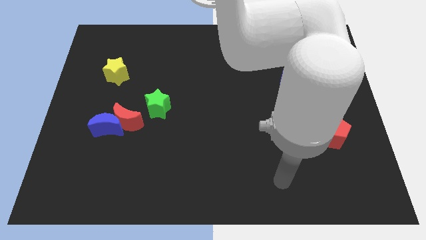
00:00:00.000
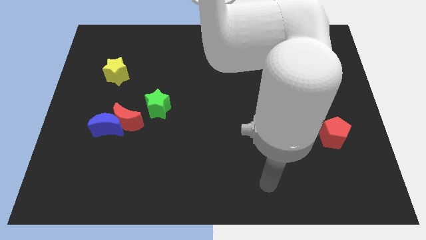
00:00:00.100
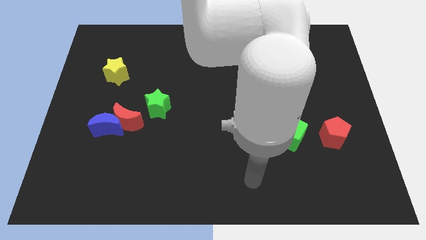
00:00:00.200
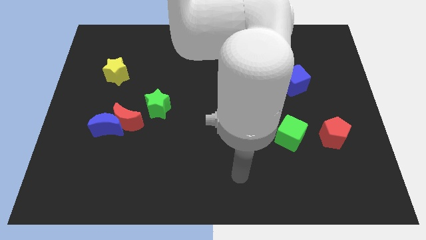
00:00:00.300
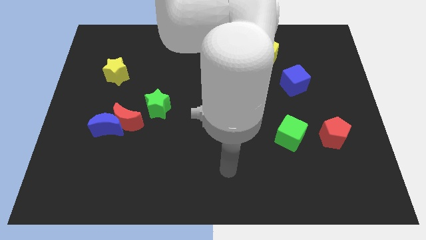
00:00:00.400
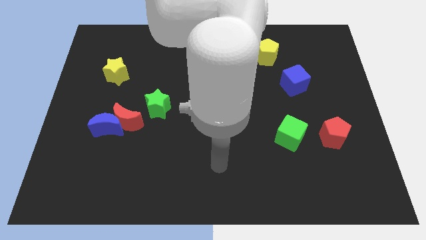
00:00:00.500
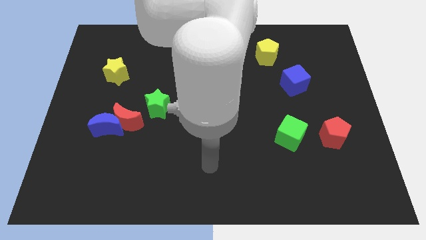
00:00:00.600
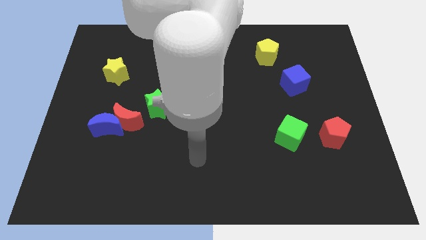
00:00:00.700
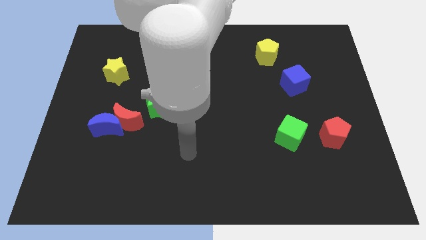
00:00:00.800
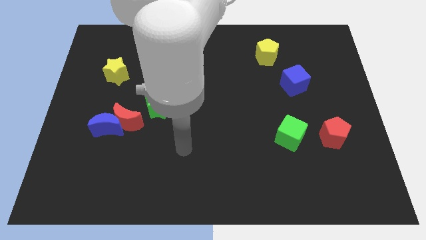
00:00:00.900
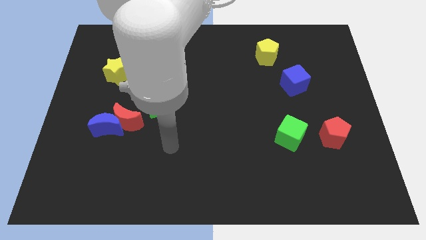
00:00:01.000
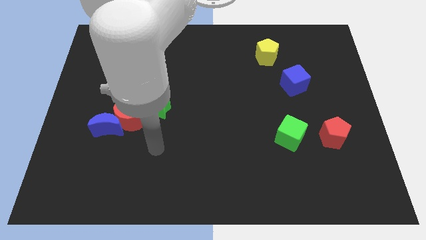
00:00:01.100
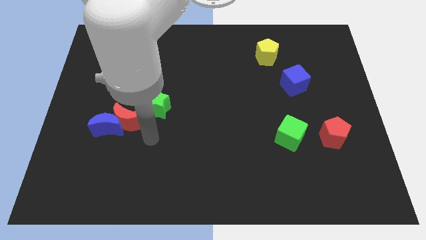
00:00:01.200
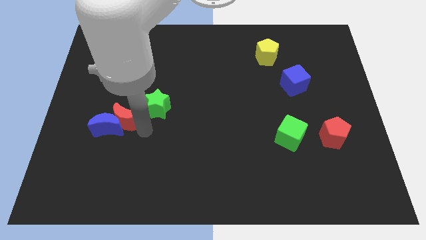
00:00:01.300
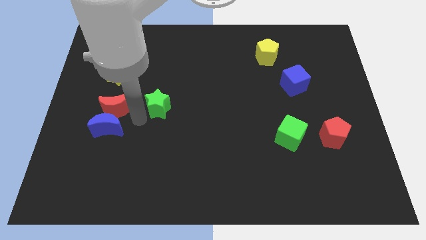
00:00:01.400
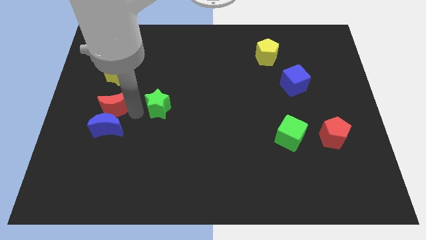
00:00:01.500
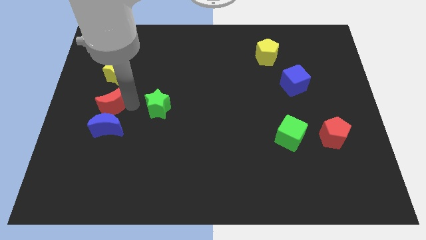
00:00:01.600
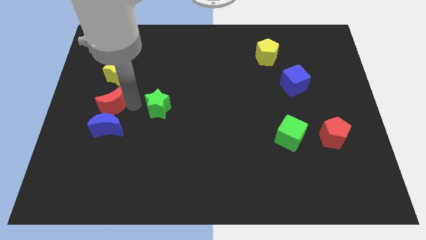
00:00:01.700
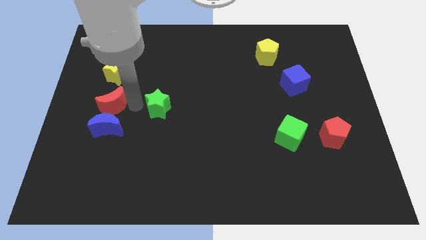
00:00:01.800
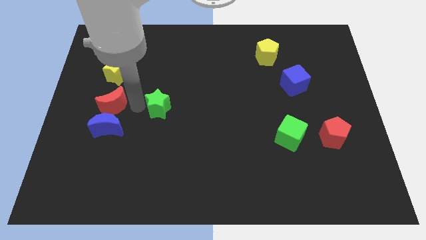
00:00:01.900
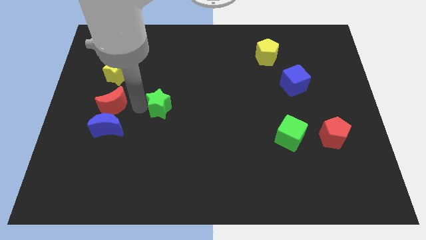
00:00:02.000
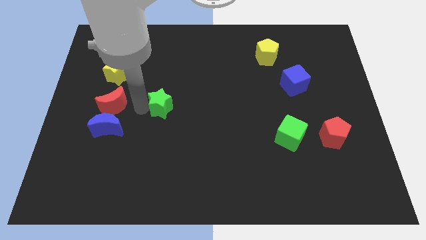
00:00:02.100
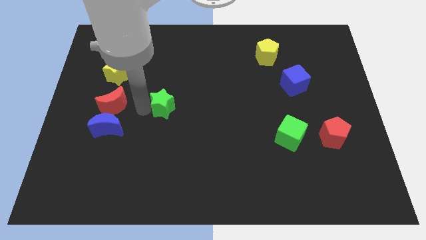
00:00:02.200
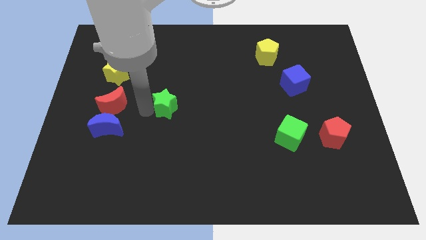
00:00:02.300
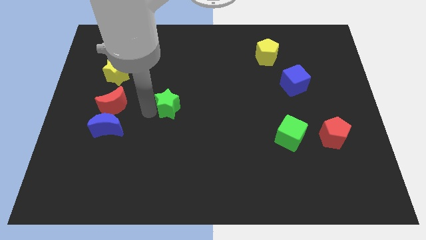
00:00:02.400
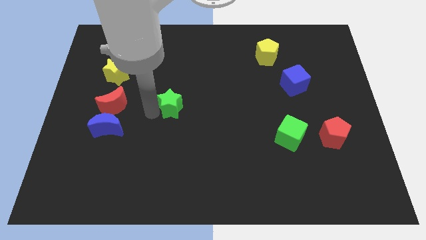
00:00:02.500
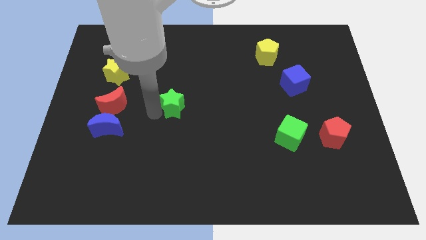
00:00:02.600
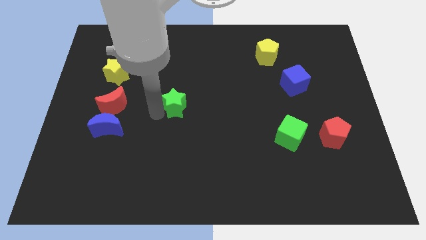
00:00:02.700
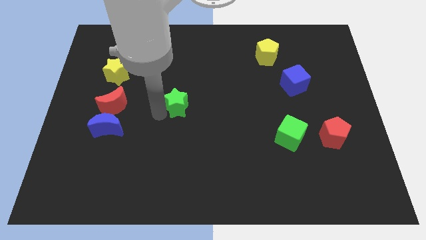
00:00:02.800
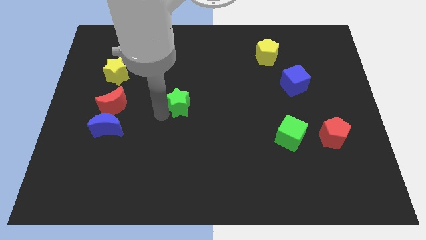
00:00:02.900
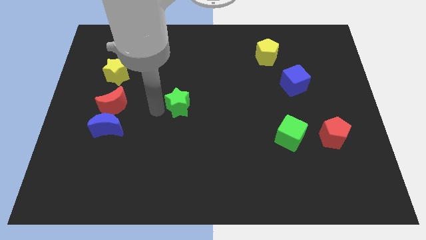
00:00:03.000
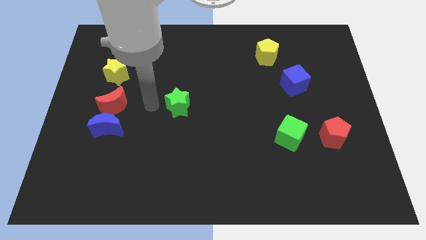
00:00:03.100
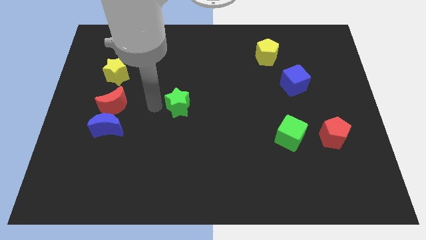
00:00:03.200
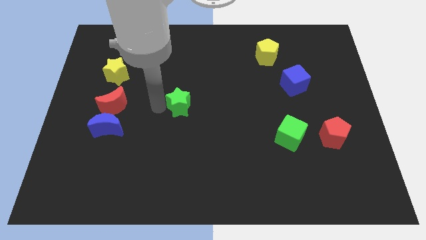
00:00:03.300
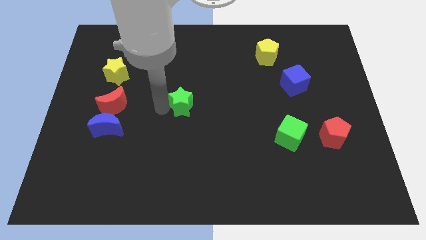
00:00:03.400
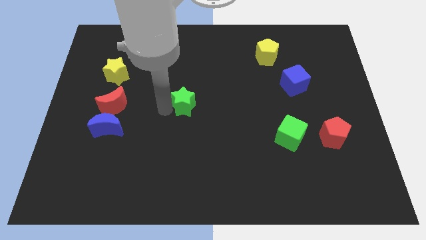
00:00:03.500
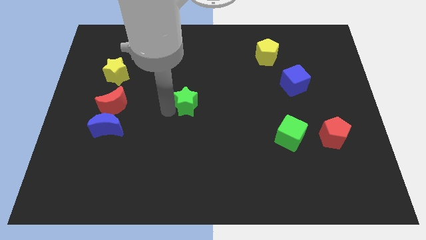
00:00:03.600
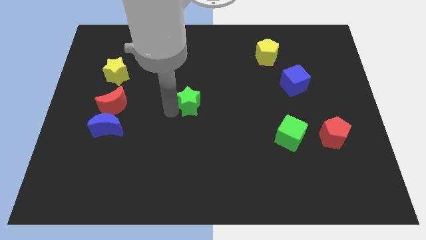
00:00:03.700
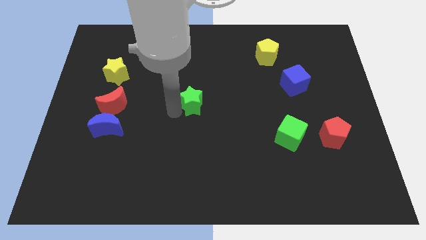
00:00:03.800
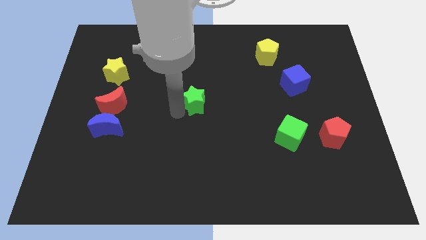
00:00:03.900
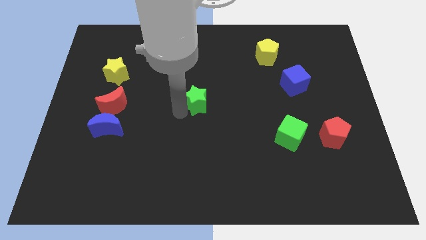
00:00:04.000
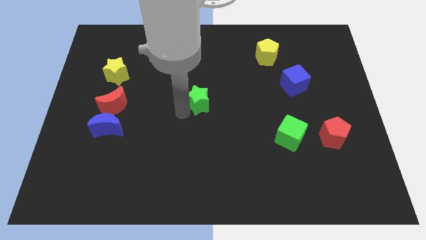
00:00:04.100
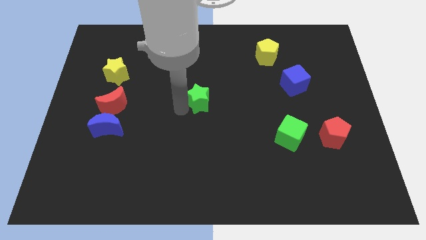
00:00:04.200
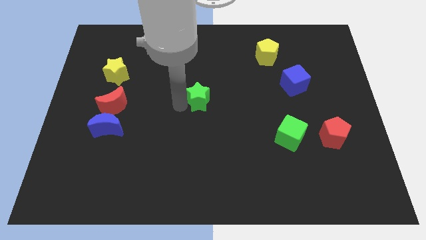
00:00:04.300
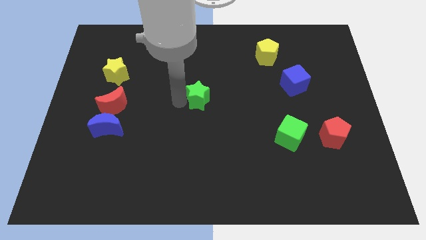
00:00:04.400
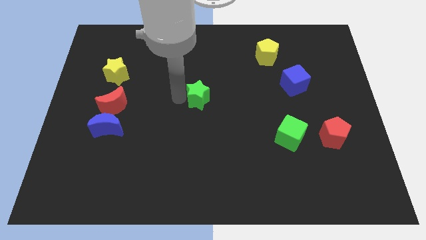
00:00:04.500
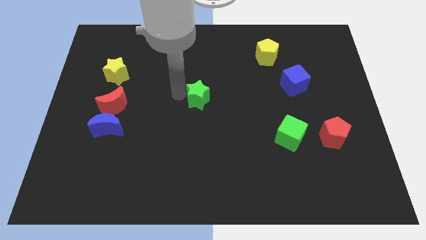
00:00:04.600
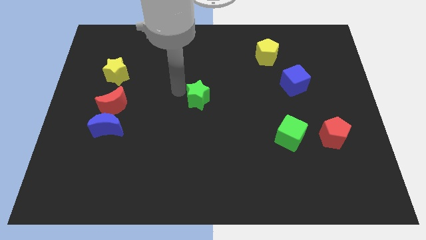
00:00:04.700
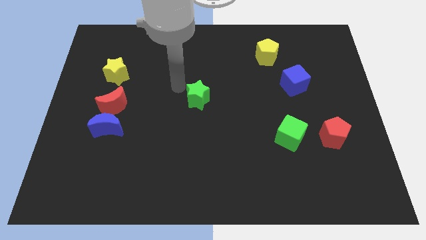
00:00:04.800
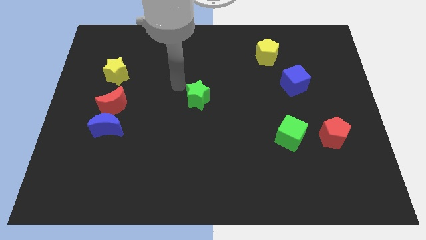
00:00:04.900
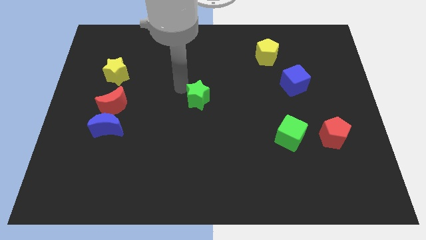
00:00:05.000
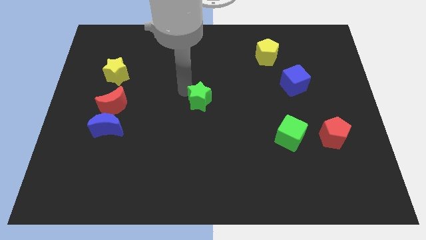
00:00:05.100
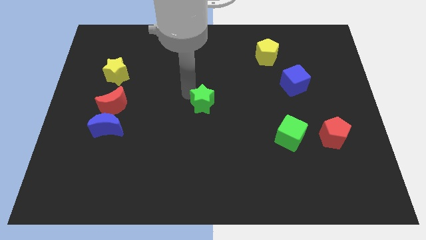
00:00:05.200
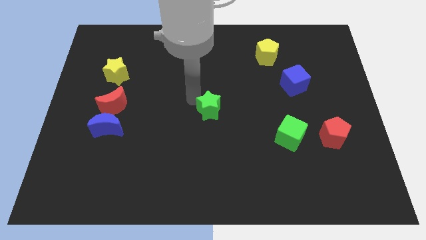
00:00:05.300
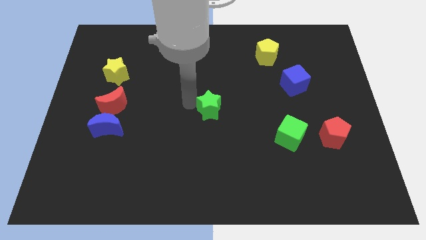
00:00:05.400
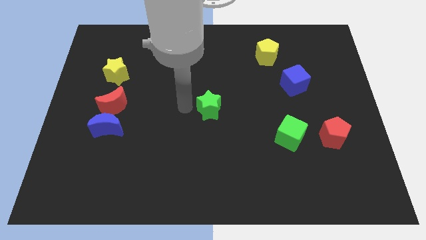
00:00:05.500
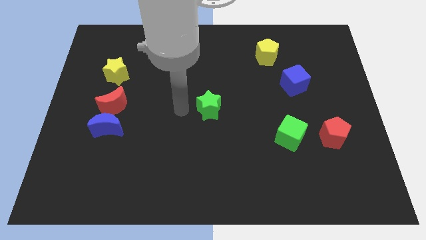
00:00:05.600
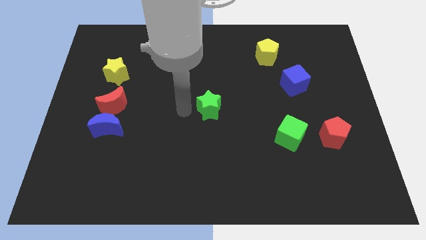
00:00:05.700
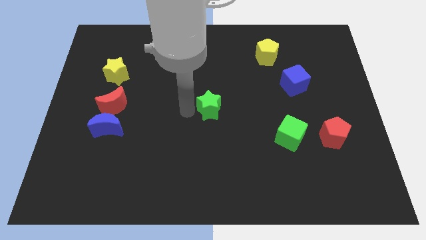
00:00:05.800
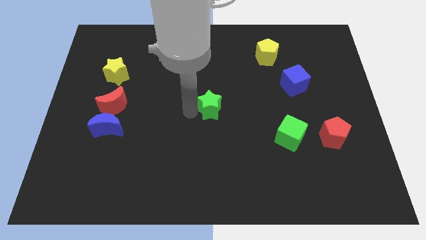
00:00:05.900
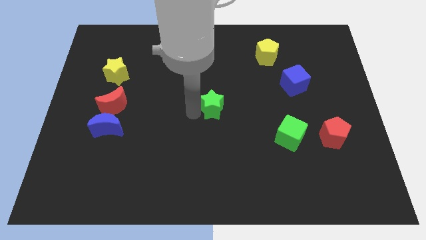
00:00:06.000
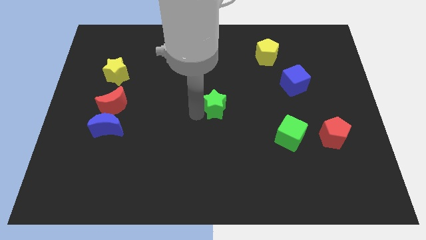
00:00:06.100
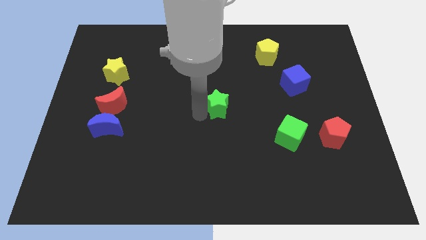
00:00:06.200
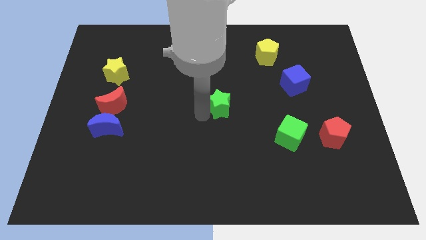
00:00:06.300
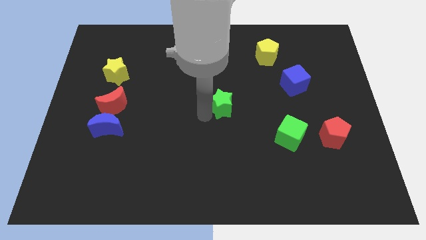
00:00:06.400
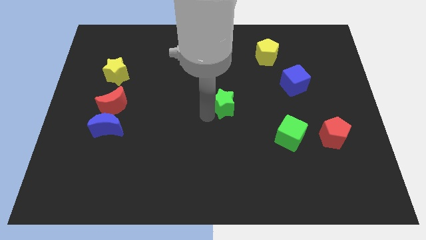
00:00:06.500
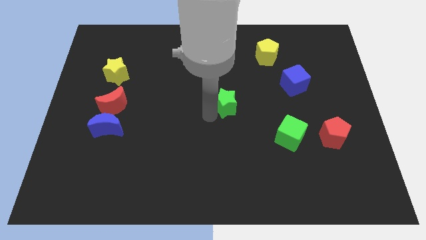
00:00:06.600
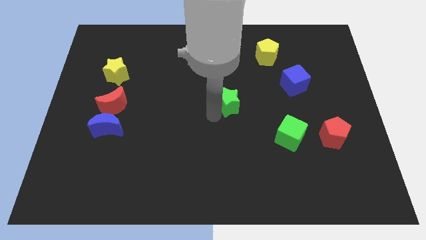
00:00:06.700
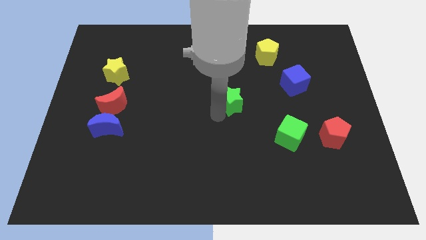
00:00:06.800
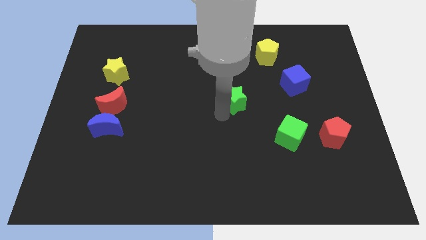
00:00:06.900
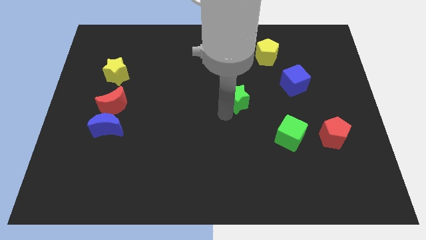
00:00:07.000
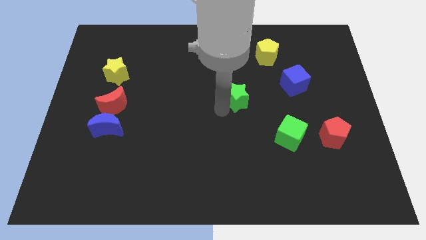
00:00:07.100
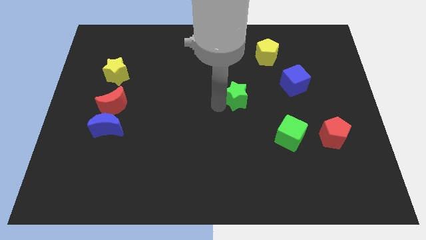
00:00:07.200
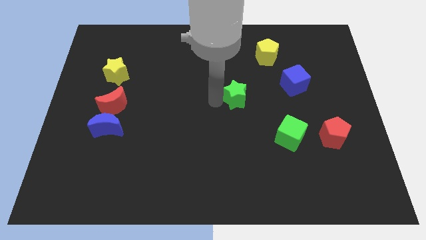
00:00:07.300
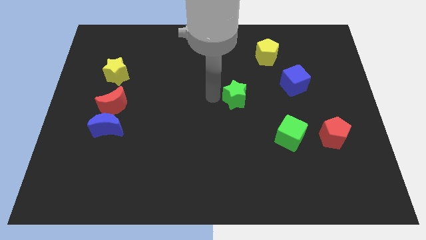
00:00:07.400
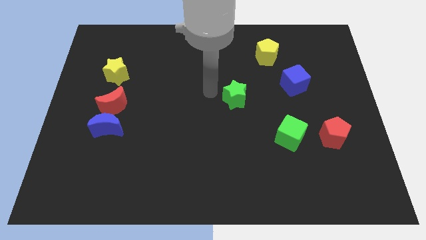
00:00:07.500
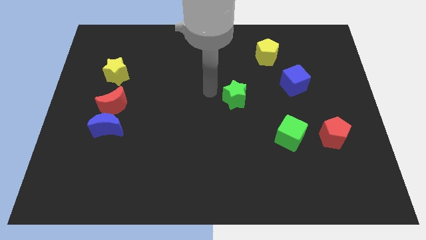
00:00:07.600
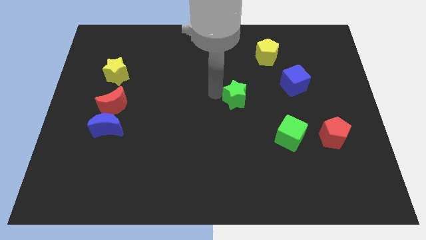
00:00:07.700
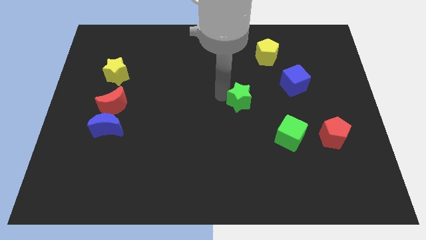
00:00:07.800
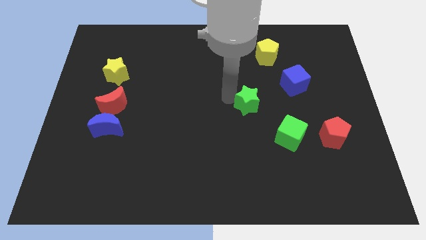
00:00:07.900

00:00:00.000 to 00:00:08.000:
push the green star to the right
